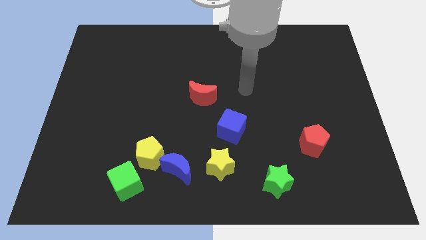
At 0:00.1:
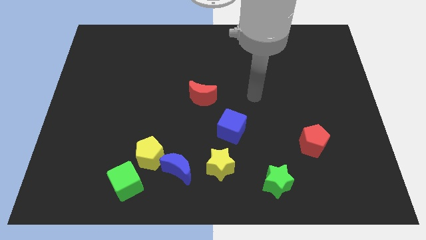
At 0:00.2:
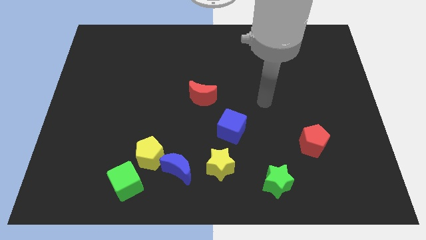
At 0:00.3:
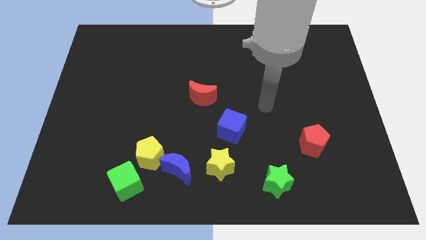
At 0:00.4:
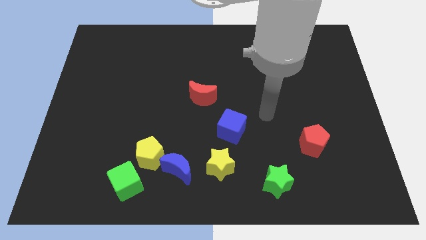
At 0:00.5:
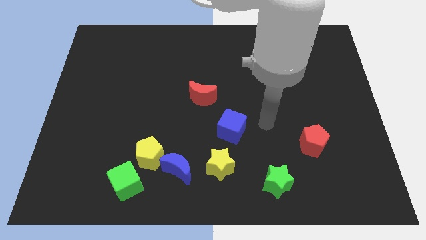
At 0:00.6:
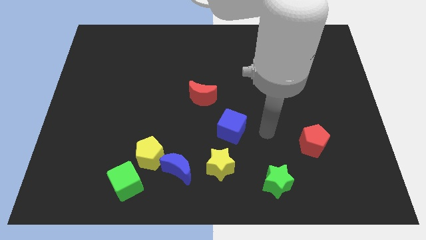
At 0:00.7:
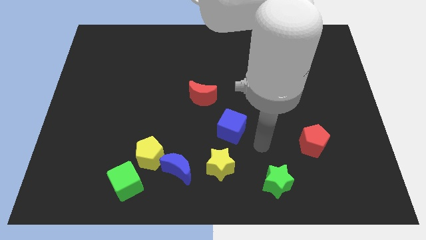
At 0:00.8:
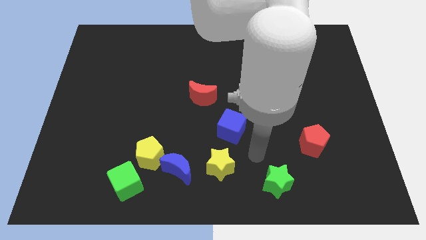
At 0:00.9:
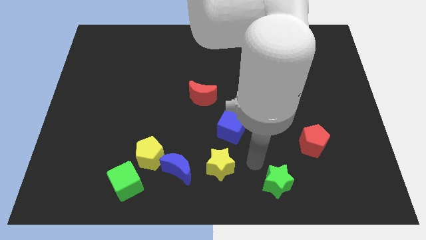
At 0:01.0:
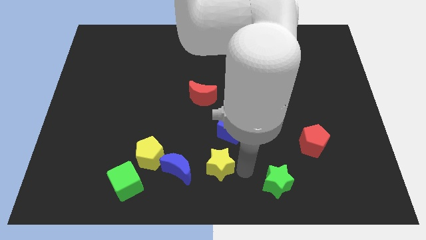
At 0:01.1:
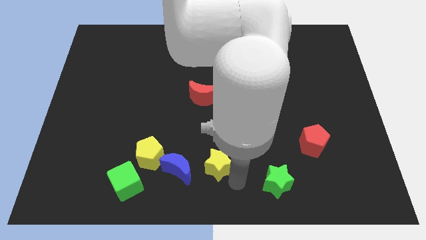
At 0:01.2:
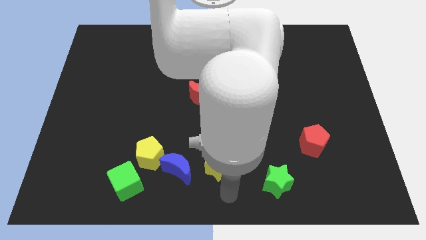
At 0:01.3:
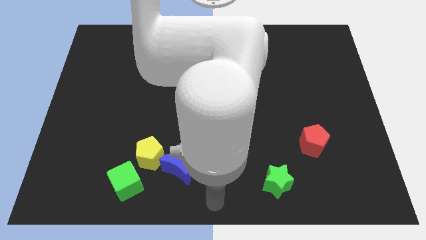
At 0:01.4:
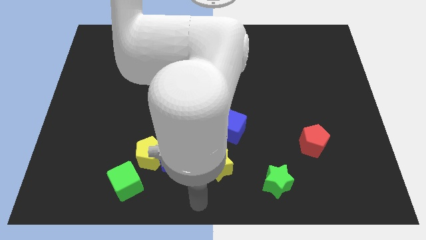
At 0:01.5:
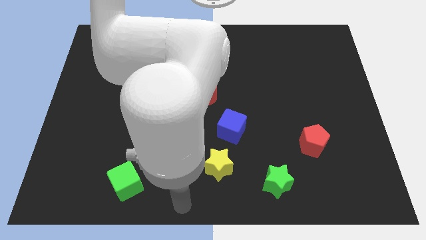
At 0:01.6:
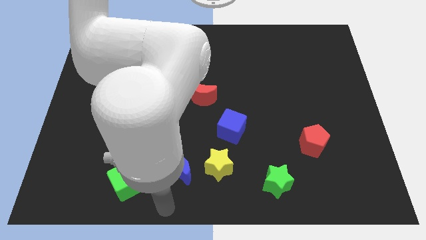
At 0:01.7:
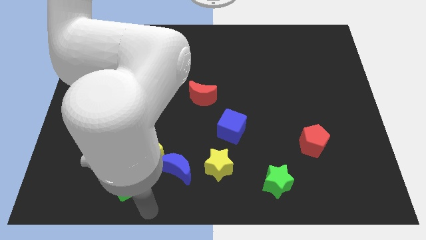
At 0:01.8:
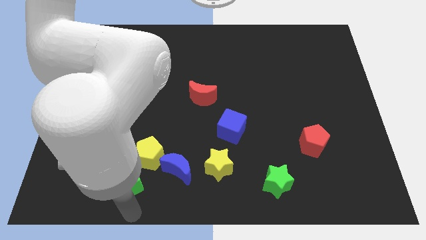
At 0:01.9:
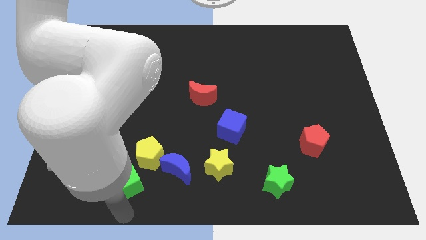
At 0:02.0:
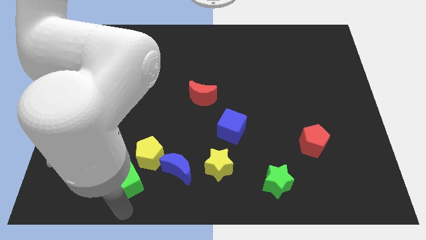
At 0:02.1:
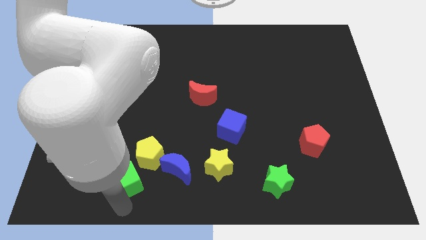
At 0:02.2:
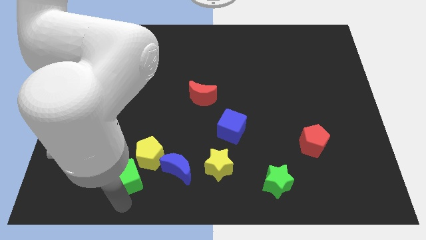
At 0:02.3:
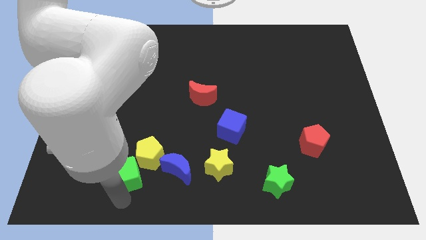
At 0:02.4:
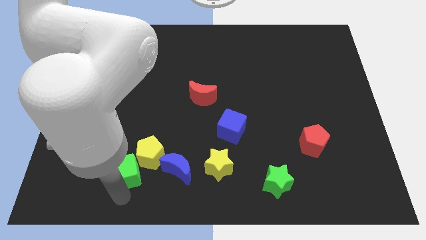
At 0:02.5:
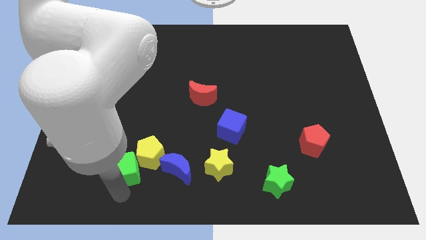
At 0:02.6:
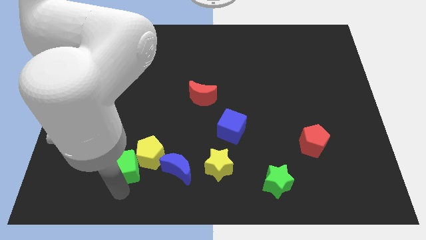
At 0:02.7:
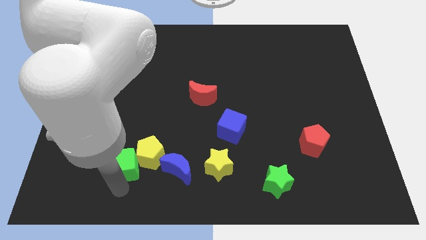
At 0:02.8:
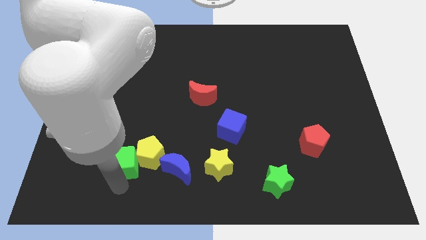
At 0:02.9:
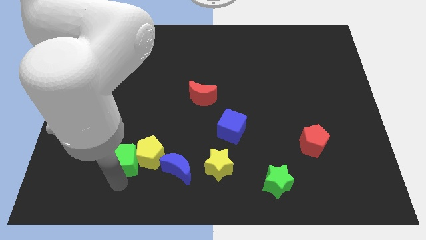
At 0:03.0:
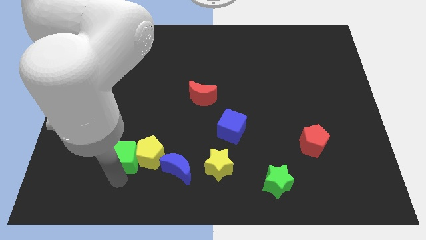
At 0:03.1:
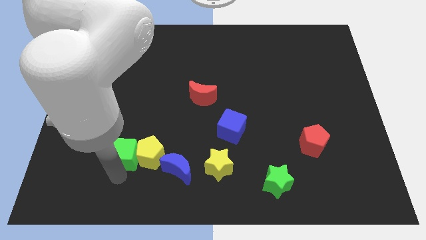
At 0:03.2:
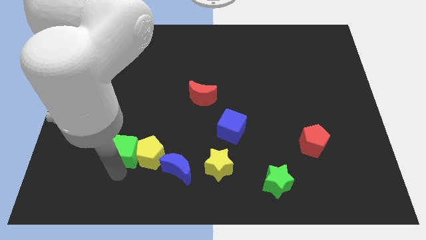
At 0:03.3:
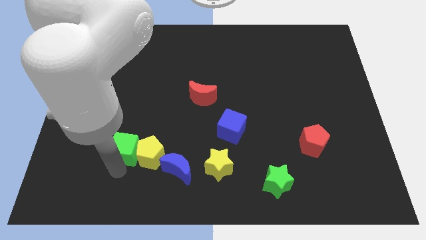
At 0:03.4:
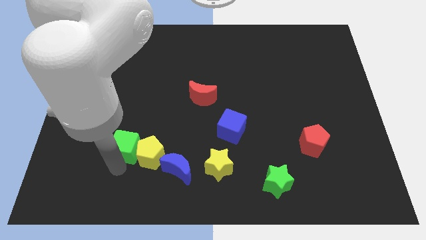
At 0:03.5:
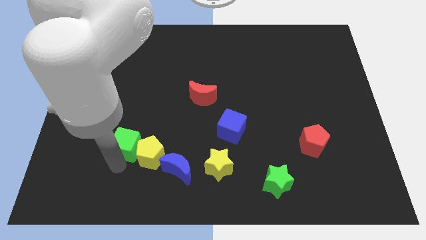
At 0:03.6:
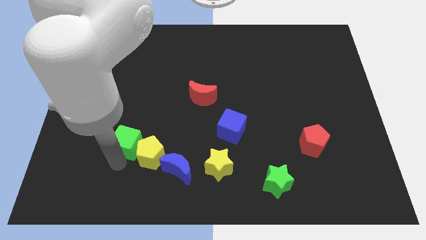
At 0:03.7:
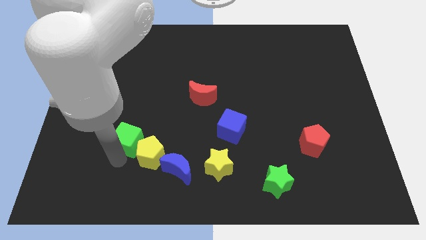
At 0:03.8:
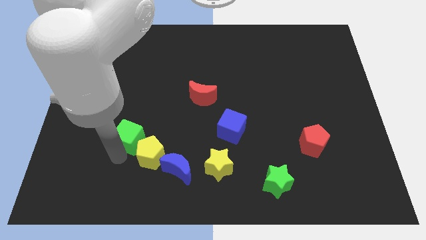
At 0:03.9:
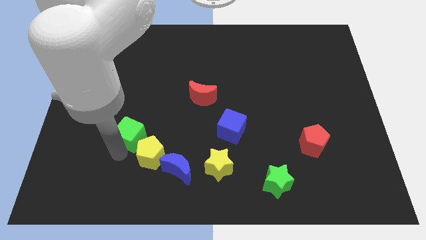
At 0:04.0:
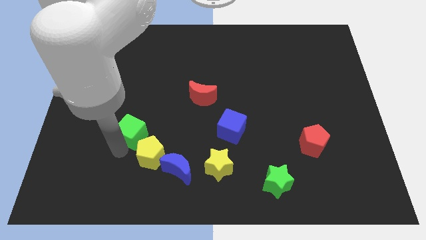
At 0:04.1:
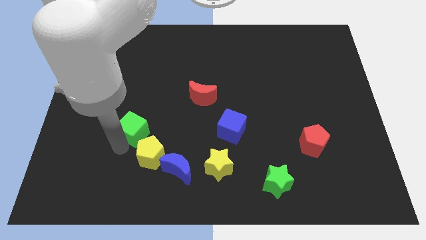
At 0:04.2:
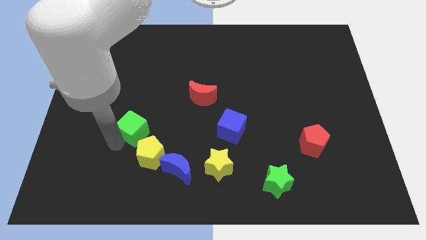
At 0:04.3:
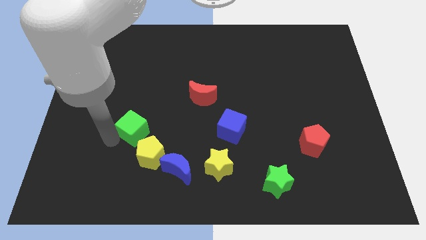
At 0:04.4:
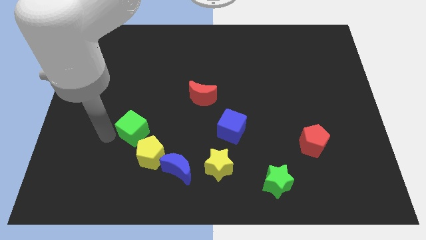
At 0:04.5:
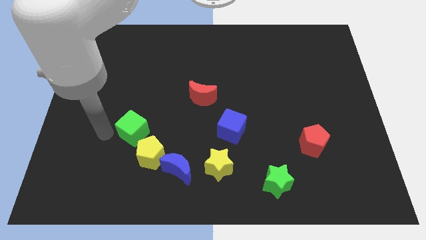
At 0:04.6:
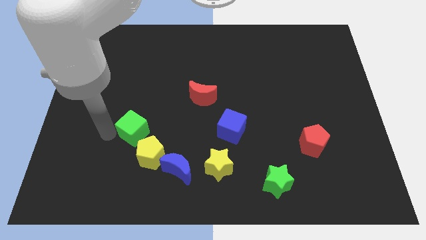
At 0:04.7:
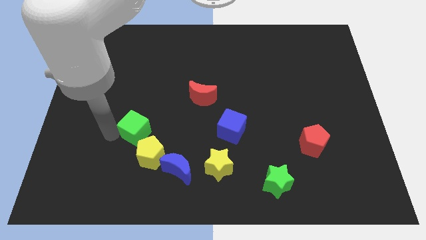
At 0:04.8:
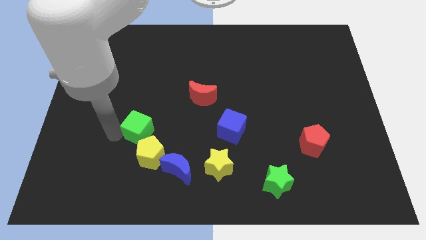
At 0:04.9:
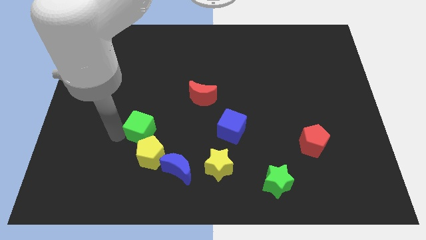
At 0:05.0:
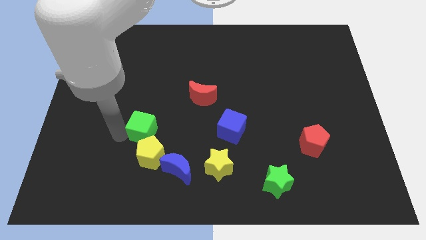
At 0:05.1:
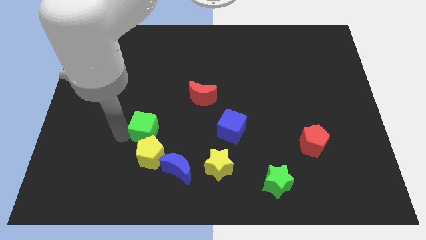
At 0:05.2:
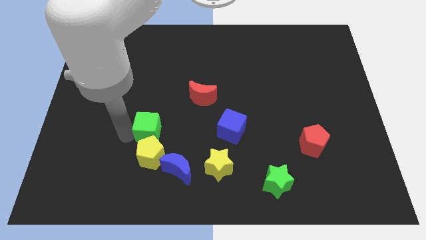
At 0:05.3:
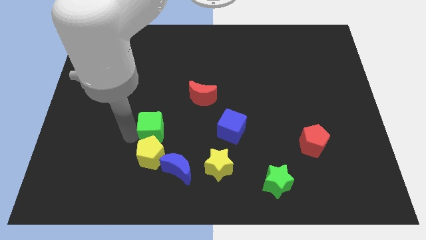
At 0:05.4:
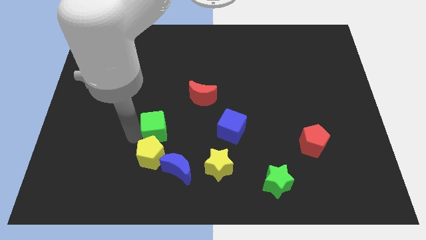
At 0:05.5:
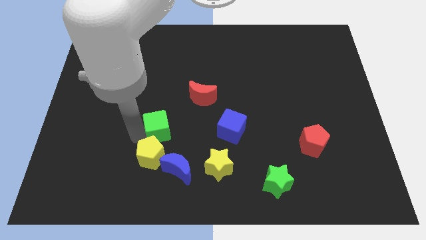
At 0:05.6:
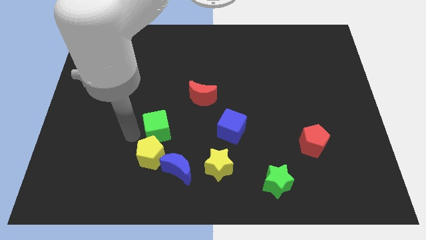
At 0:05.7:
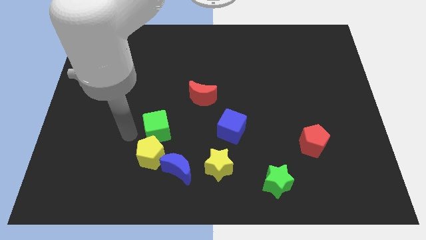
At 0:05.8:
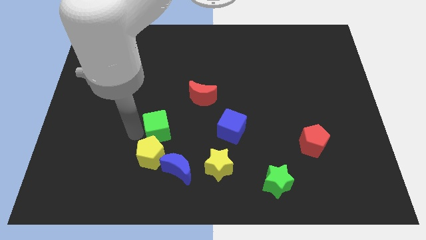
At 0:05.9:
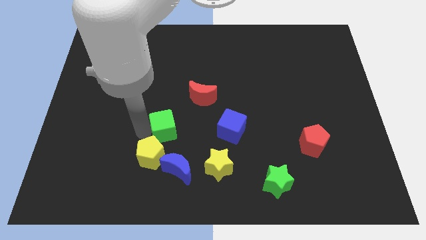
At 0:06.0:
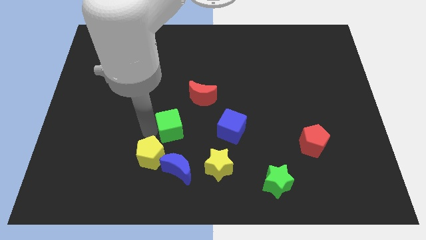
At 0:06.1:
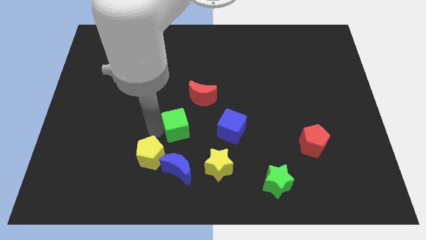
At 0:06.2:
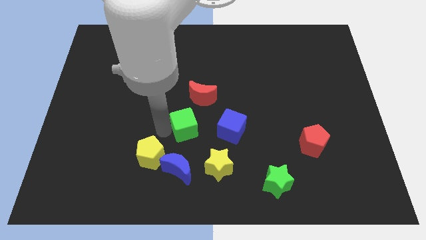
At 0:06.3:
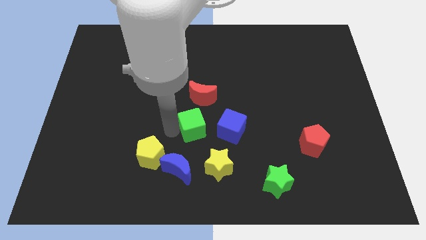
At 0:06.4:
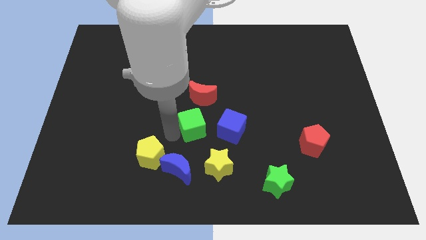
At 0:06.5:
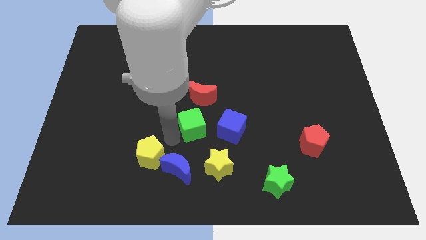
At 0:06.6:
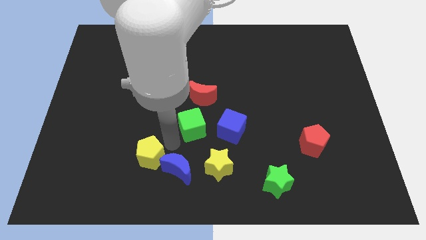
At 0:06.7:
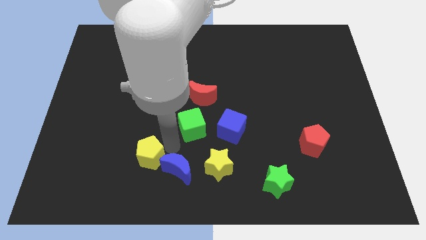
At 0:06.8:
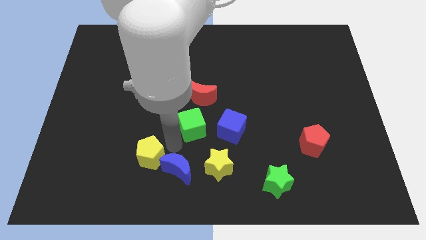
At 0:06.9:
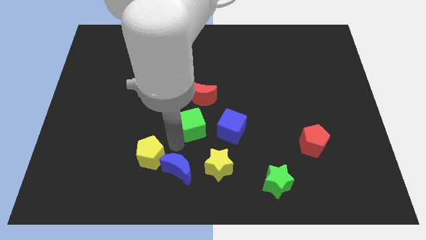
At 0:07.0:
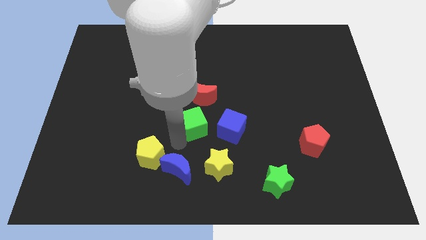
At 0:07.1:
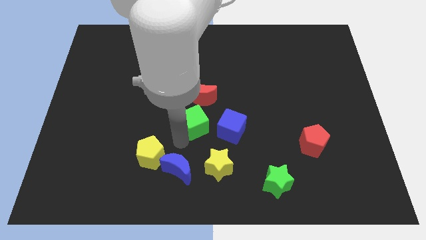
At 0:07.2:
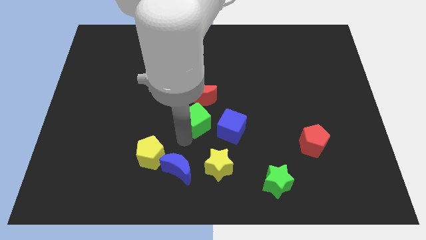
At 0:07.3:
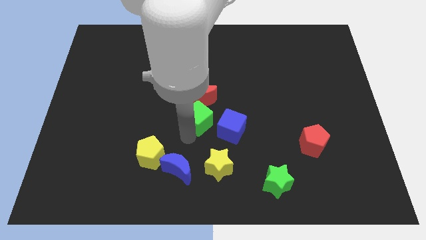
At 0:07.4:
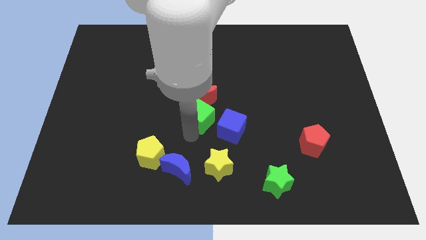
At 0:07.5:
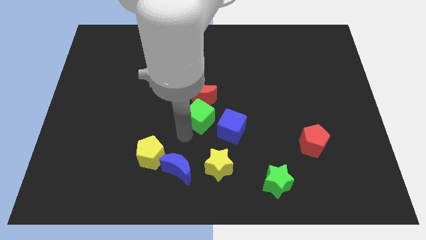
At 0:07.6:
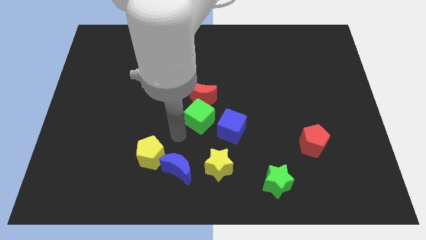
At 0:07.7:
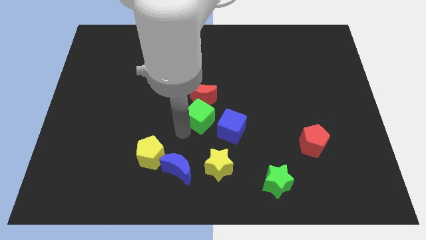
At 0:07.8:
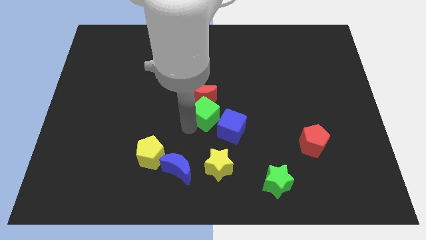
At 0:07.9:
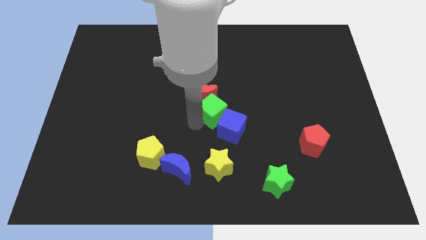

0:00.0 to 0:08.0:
put the green cube to the top of the blue cube
